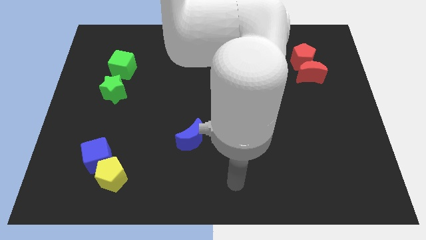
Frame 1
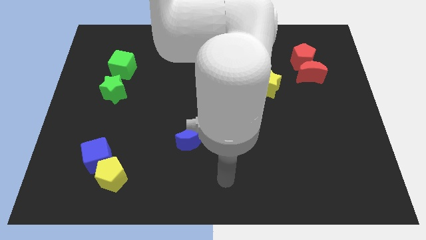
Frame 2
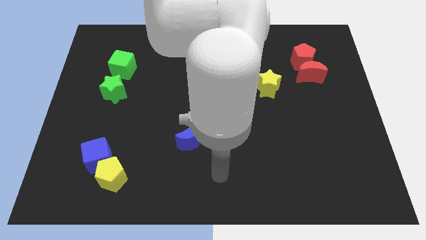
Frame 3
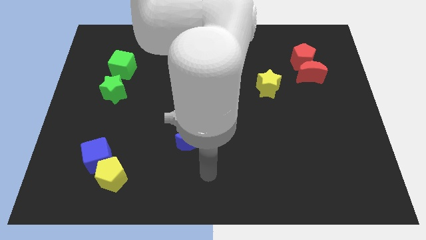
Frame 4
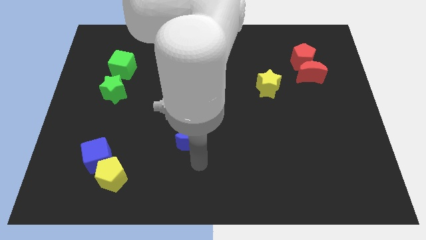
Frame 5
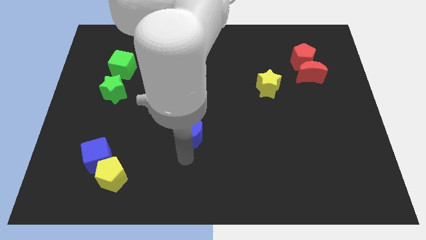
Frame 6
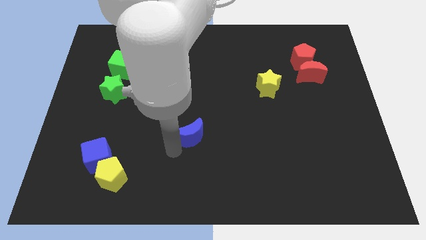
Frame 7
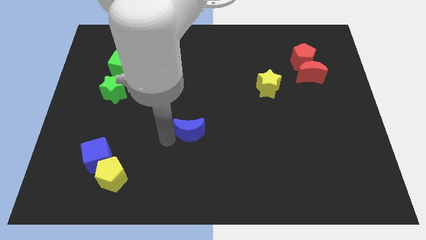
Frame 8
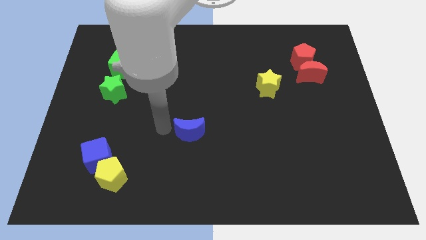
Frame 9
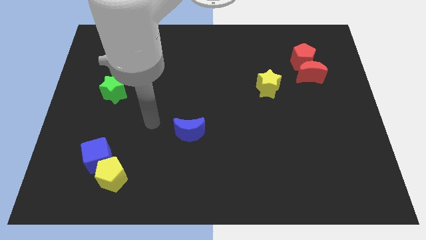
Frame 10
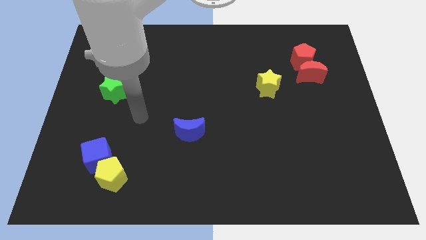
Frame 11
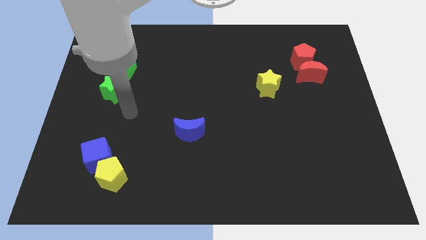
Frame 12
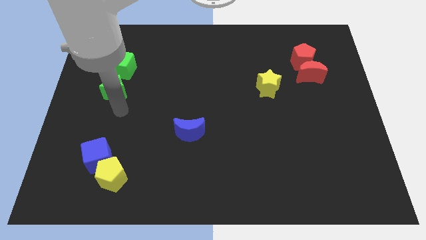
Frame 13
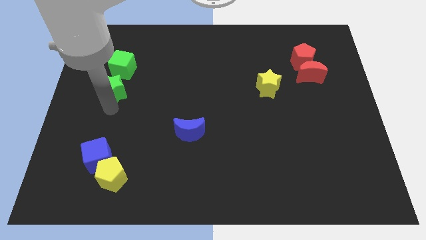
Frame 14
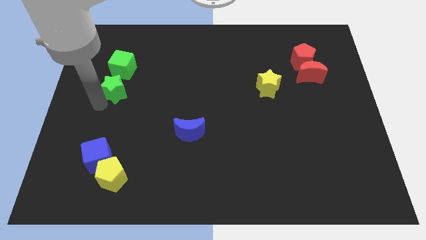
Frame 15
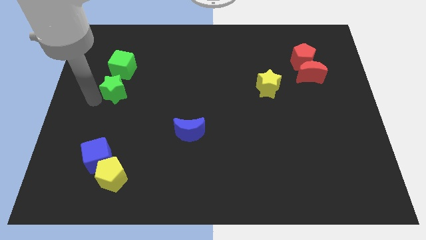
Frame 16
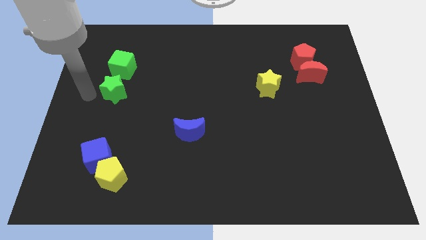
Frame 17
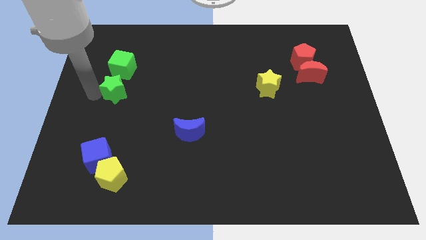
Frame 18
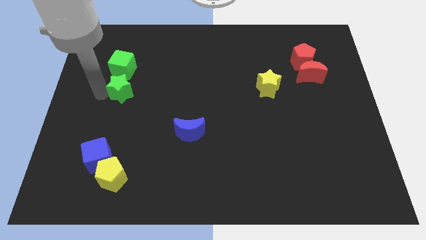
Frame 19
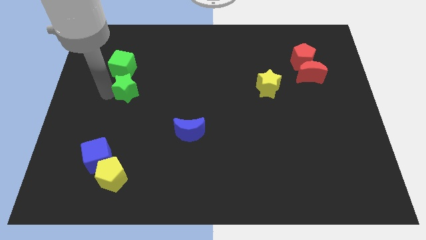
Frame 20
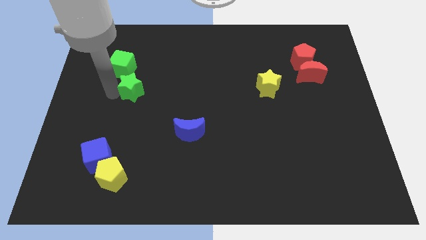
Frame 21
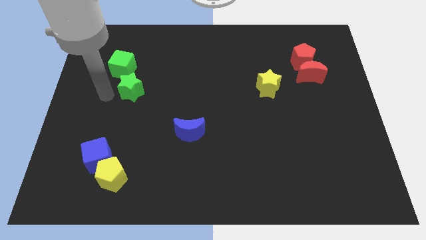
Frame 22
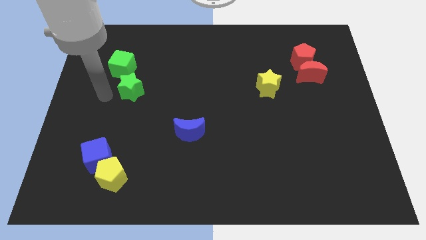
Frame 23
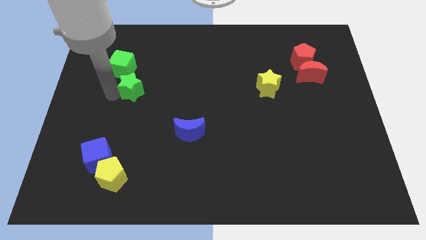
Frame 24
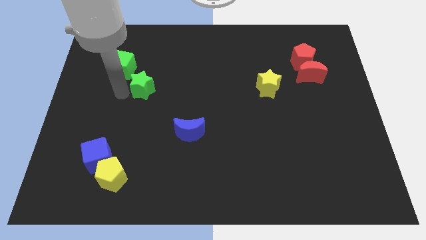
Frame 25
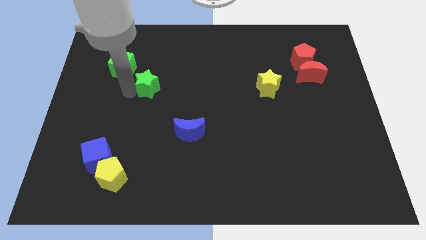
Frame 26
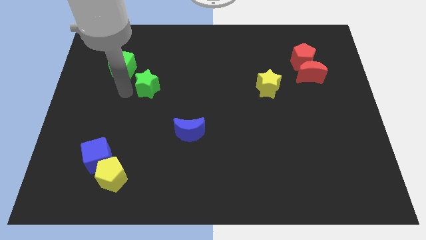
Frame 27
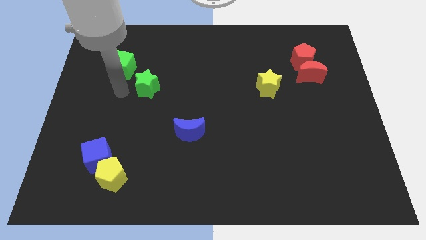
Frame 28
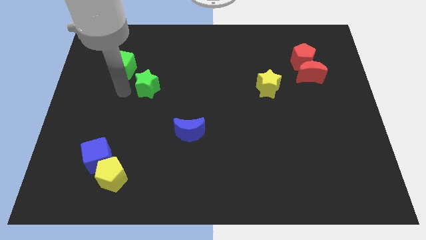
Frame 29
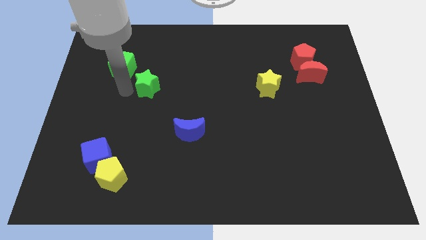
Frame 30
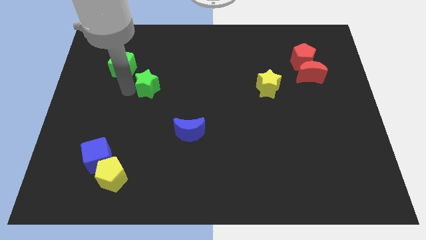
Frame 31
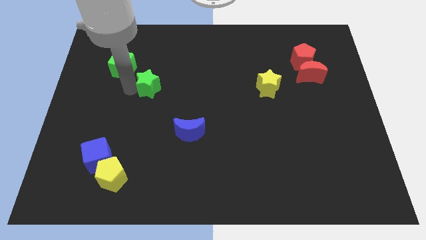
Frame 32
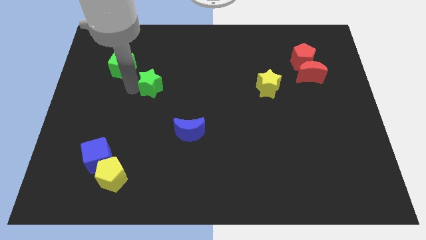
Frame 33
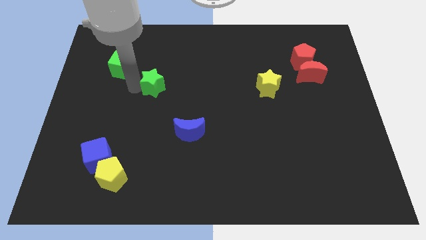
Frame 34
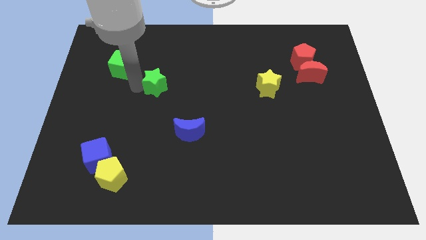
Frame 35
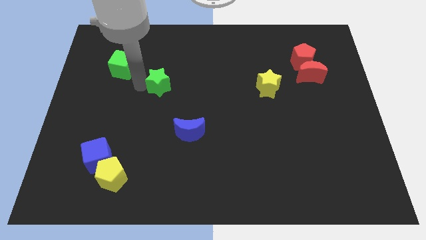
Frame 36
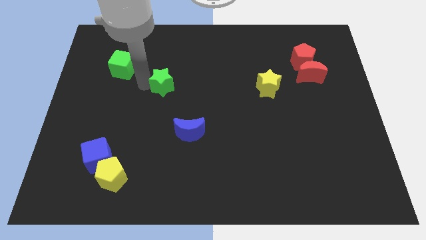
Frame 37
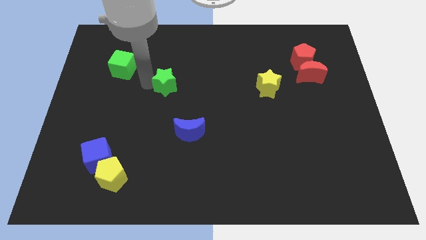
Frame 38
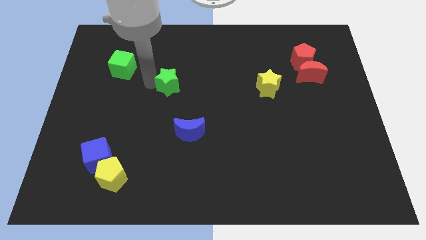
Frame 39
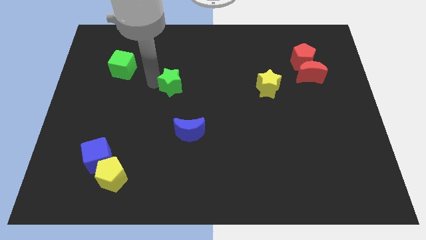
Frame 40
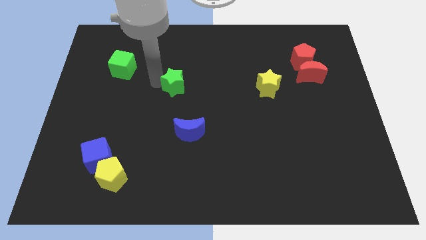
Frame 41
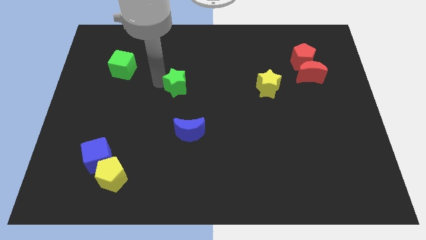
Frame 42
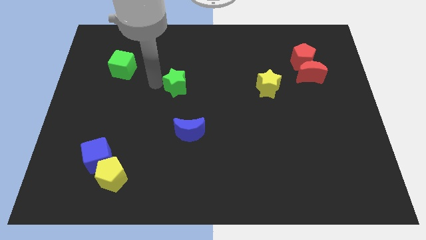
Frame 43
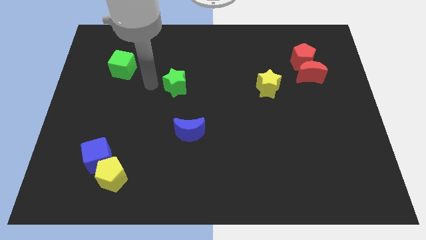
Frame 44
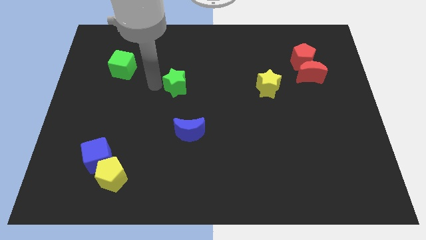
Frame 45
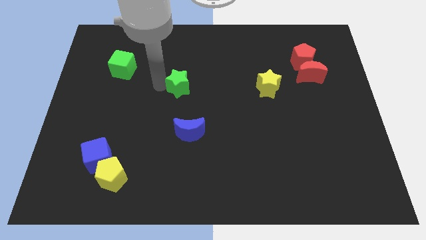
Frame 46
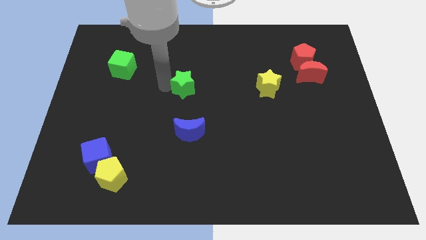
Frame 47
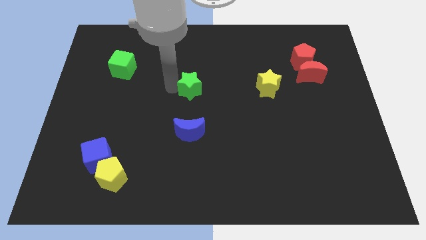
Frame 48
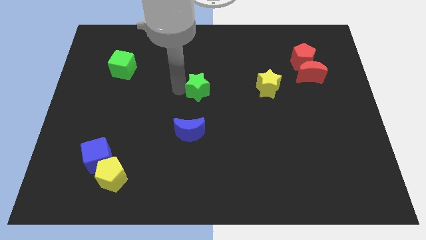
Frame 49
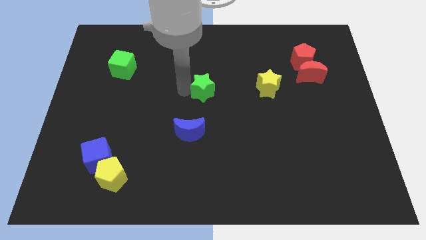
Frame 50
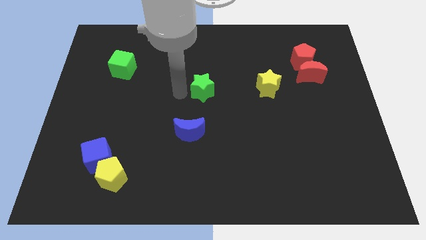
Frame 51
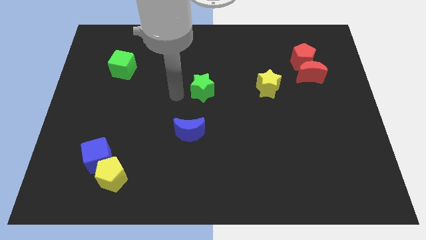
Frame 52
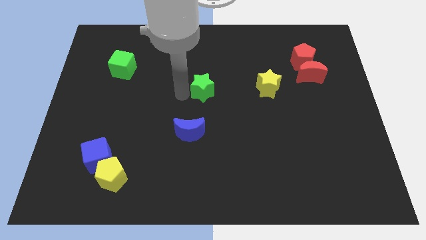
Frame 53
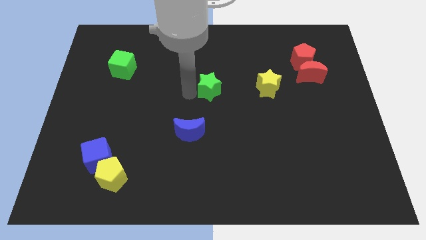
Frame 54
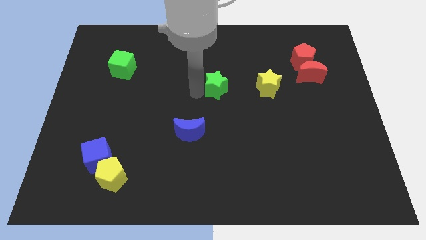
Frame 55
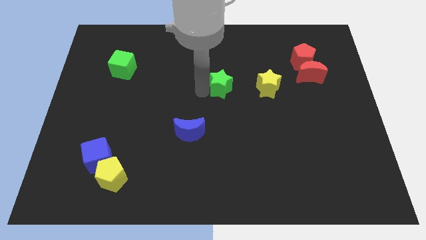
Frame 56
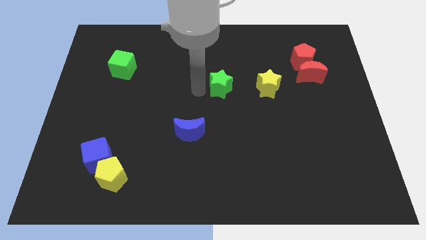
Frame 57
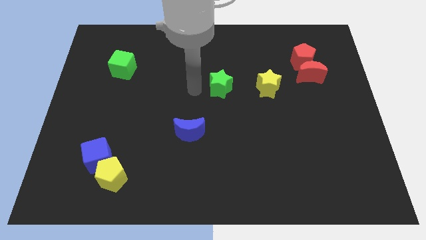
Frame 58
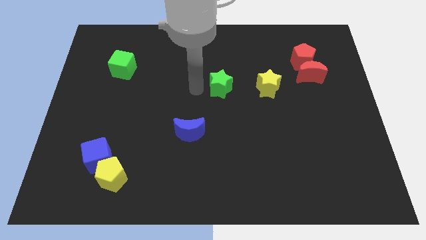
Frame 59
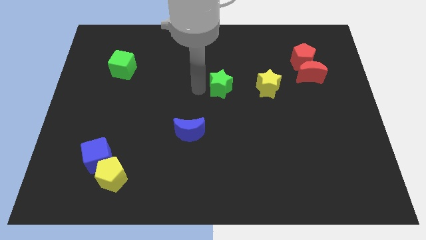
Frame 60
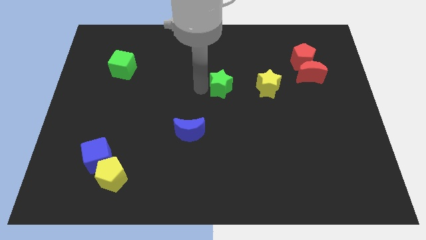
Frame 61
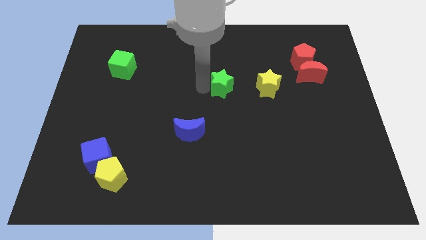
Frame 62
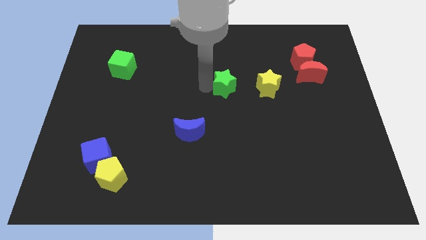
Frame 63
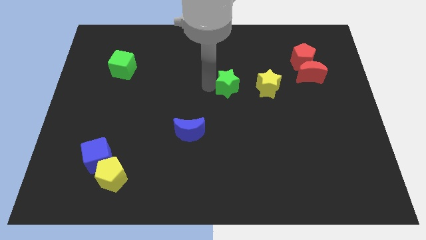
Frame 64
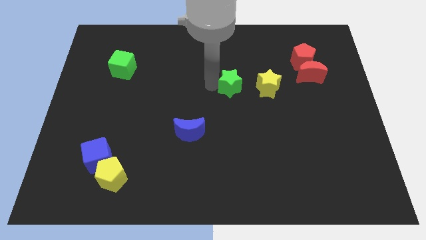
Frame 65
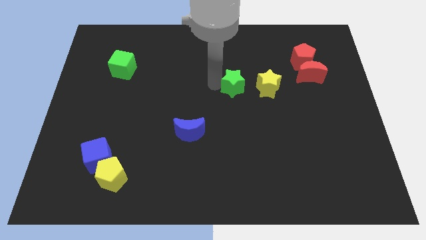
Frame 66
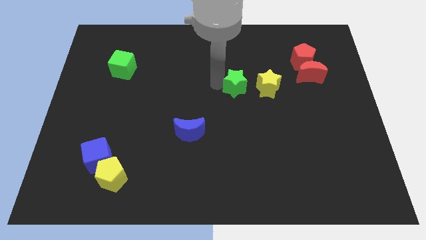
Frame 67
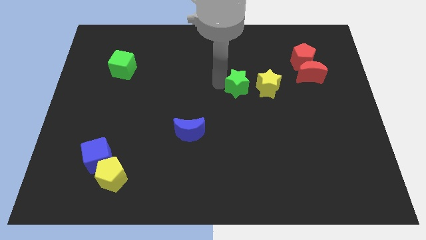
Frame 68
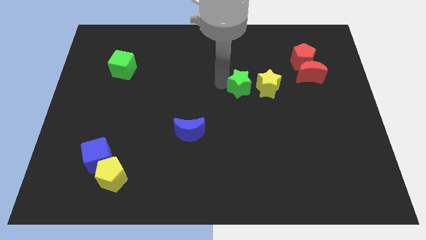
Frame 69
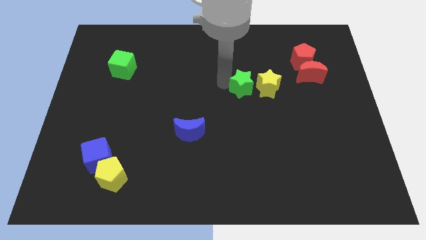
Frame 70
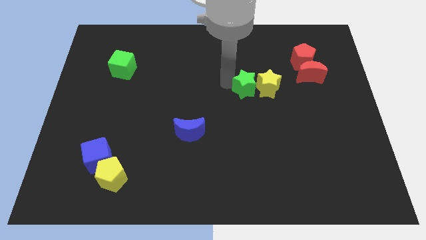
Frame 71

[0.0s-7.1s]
move the green star next to the yellow star

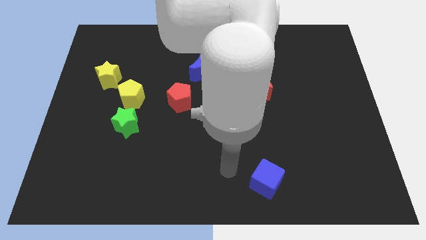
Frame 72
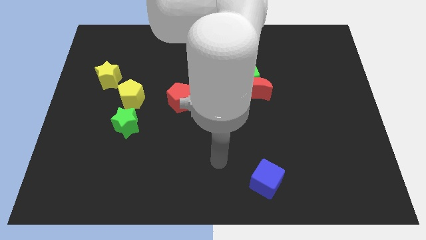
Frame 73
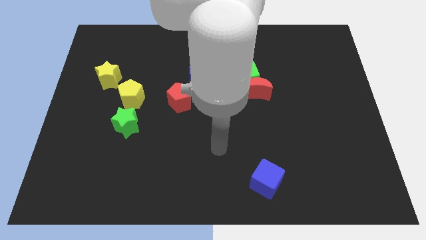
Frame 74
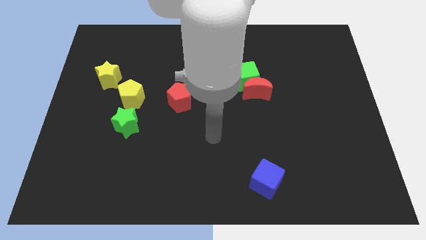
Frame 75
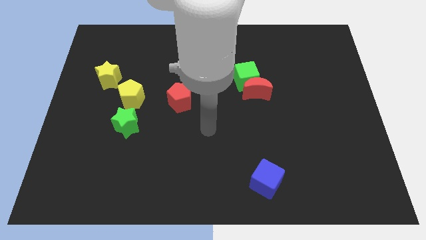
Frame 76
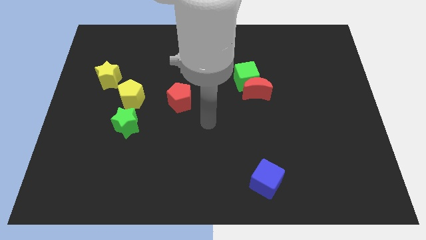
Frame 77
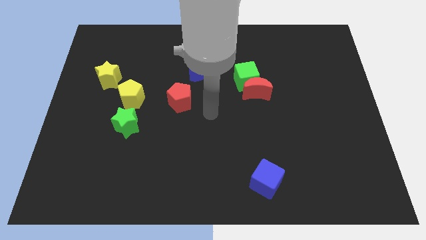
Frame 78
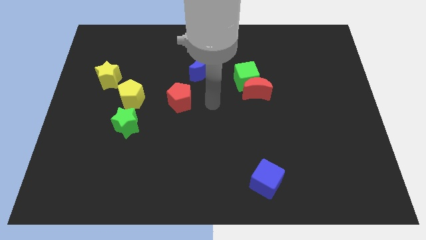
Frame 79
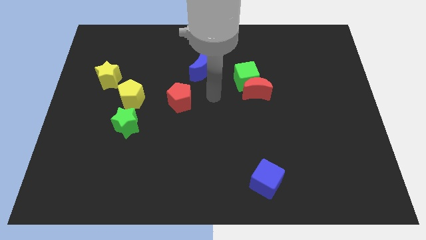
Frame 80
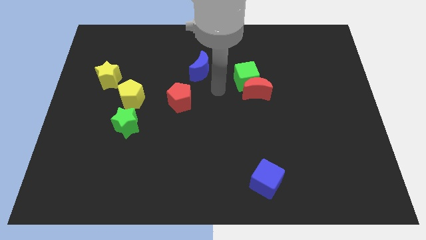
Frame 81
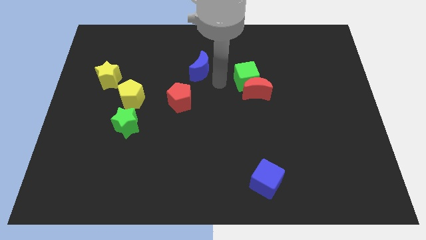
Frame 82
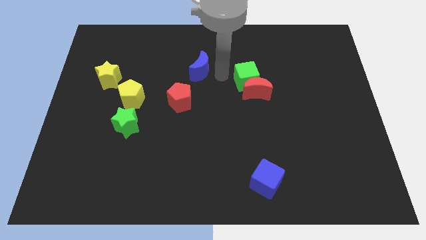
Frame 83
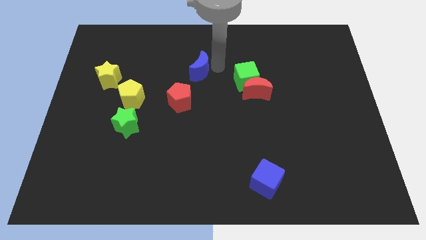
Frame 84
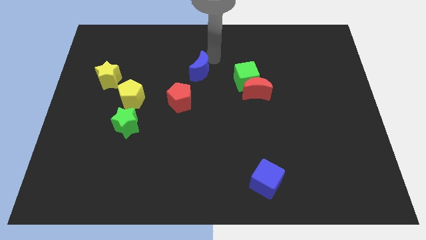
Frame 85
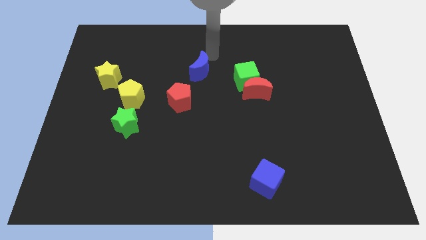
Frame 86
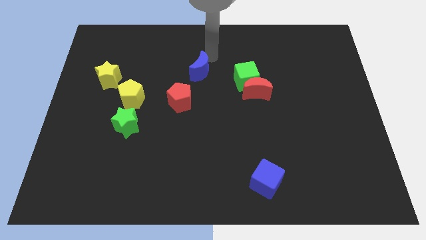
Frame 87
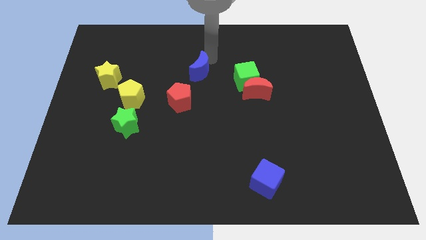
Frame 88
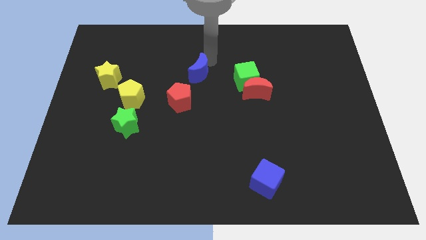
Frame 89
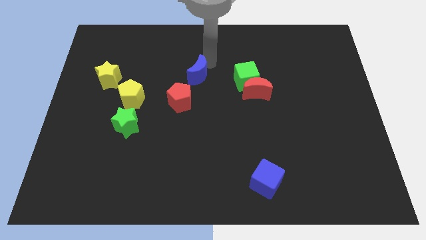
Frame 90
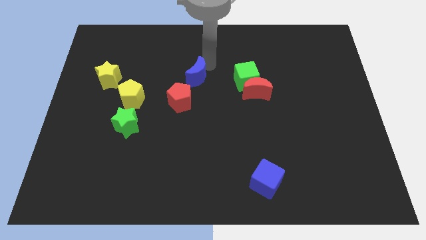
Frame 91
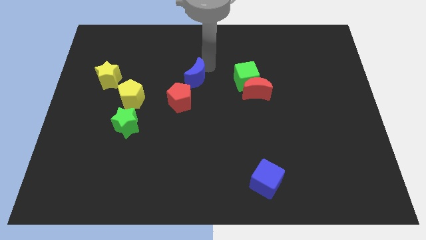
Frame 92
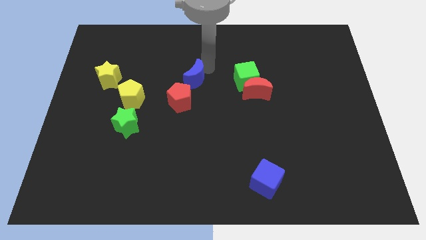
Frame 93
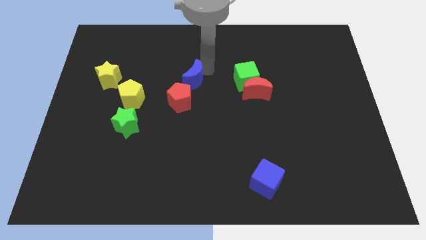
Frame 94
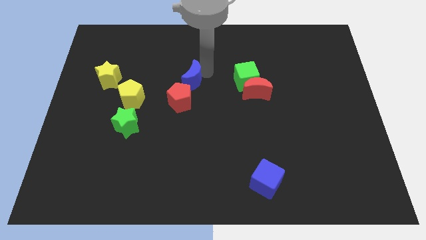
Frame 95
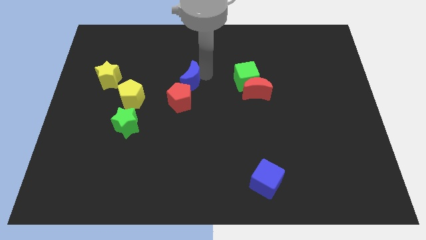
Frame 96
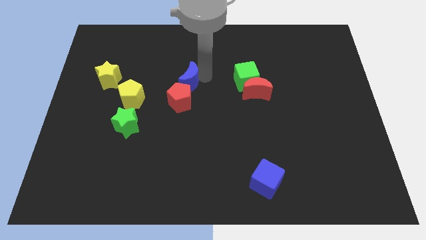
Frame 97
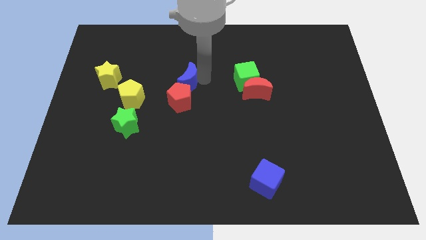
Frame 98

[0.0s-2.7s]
slide the blue moon to the red pentagon
